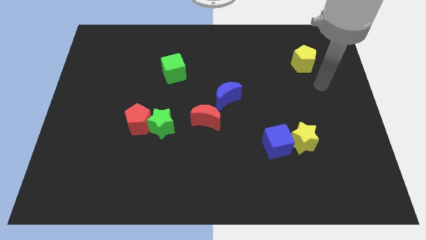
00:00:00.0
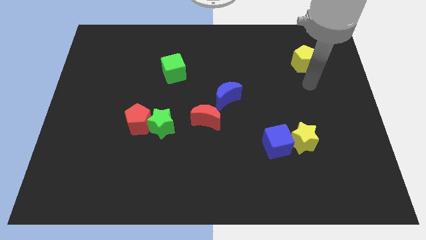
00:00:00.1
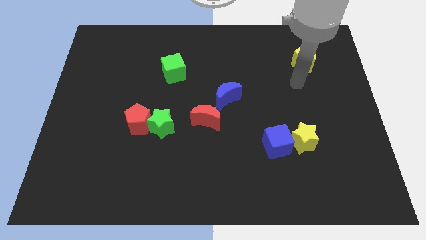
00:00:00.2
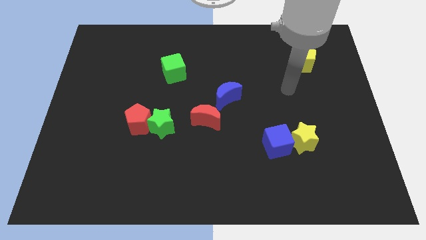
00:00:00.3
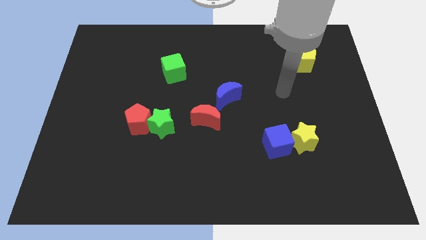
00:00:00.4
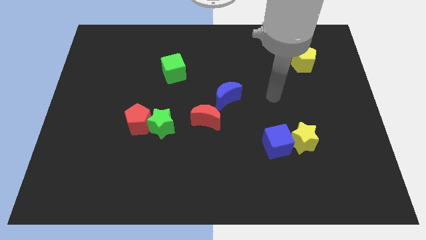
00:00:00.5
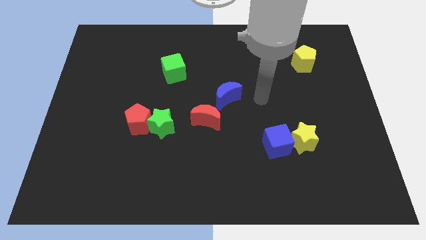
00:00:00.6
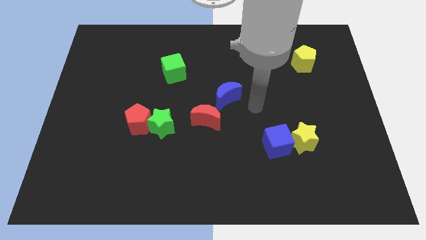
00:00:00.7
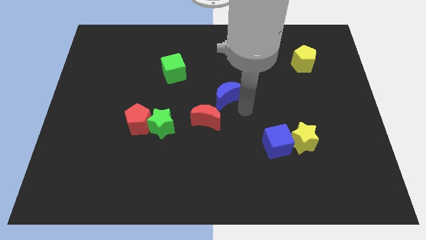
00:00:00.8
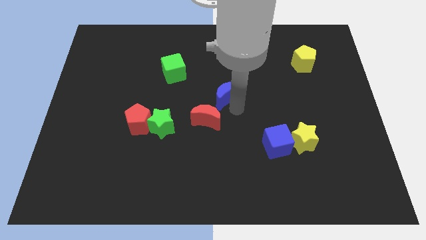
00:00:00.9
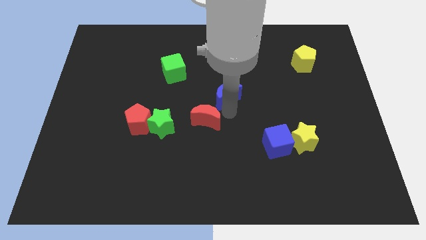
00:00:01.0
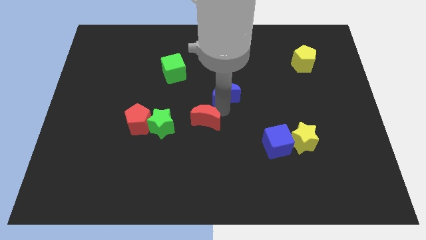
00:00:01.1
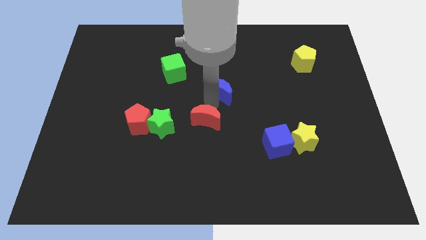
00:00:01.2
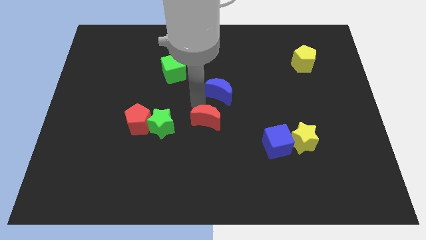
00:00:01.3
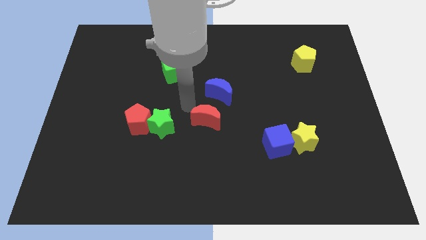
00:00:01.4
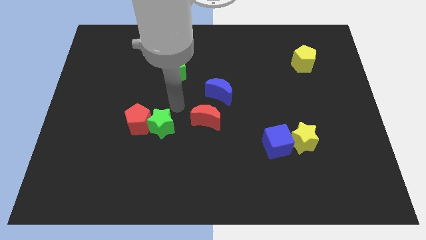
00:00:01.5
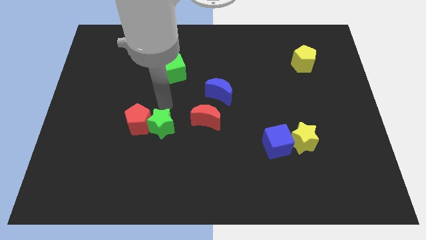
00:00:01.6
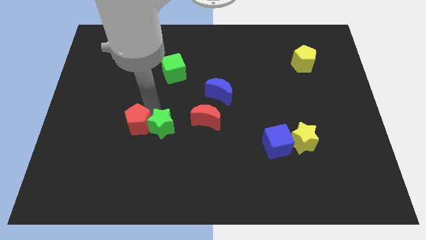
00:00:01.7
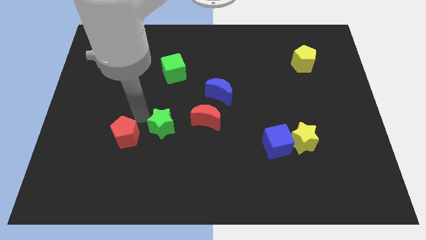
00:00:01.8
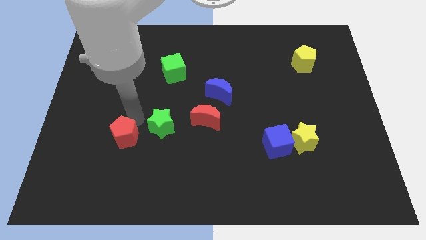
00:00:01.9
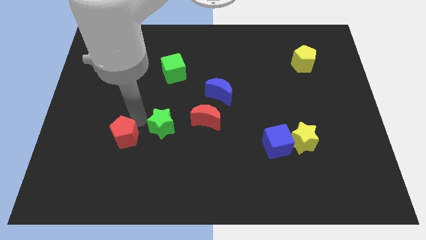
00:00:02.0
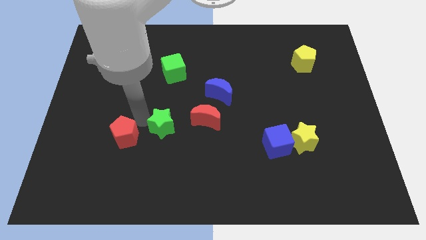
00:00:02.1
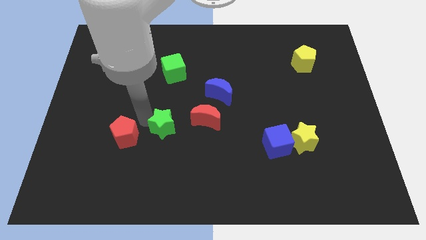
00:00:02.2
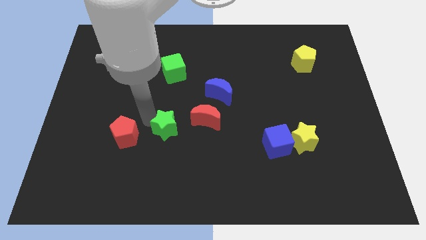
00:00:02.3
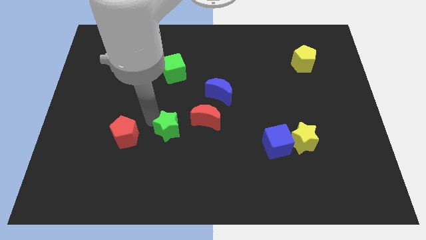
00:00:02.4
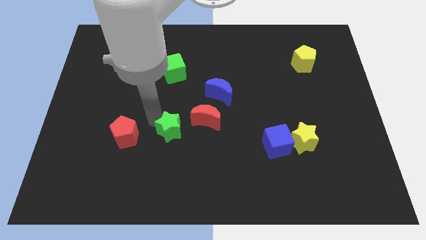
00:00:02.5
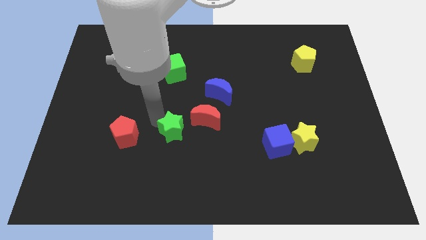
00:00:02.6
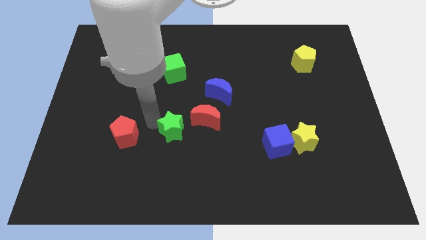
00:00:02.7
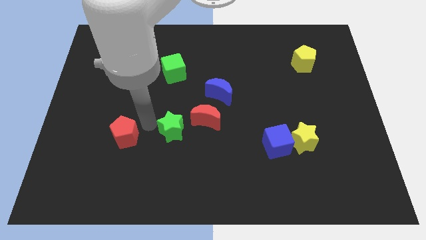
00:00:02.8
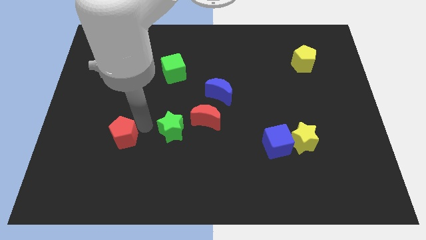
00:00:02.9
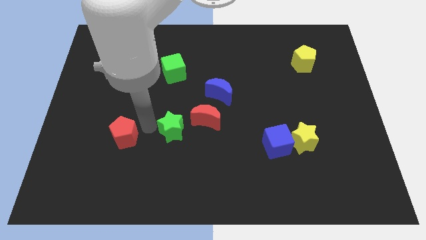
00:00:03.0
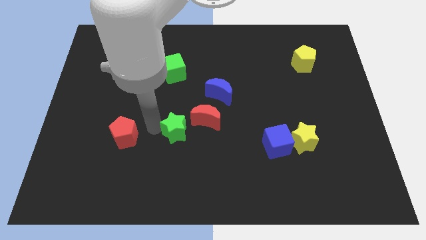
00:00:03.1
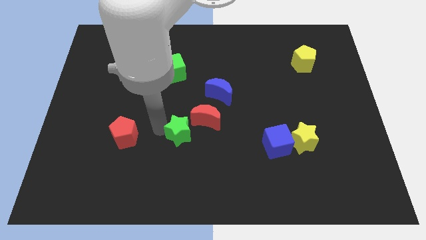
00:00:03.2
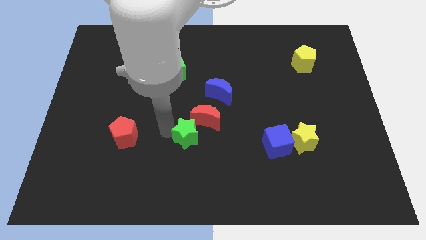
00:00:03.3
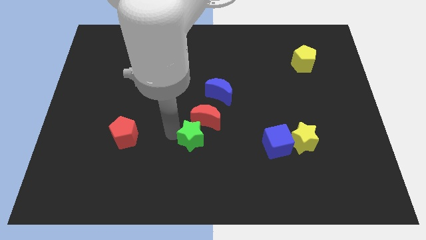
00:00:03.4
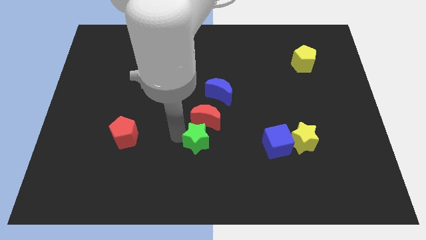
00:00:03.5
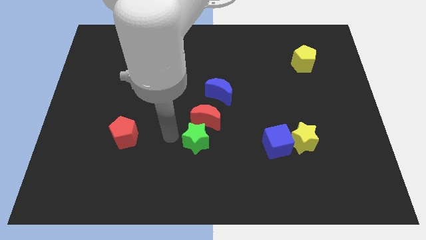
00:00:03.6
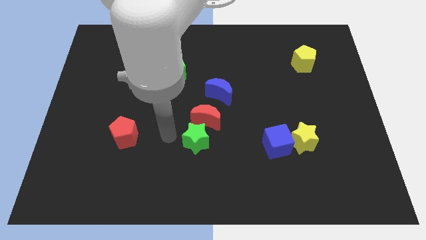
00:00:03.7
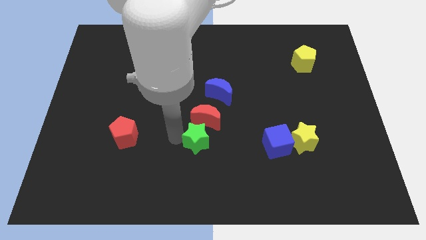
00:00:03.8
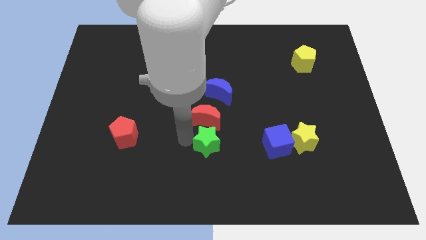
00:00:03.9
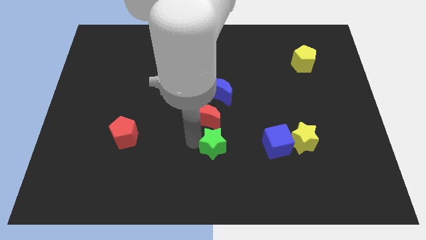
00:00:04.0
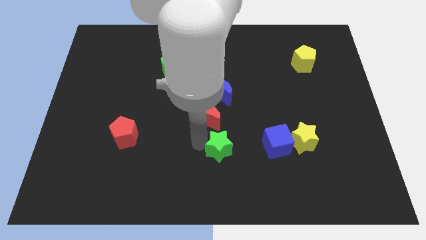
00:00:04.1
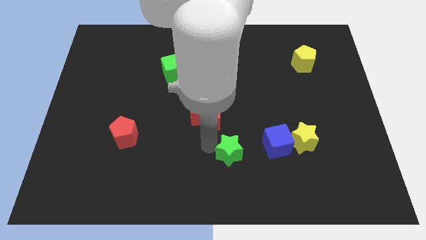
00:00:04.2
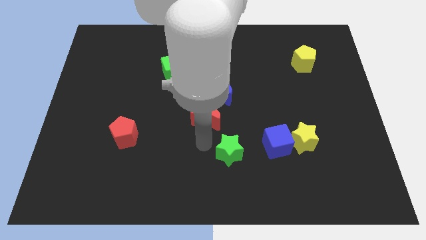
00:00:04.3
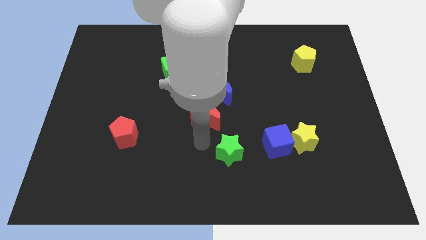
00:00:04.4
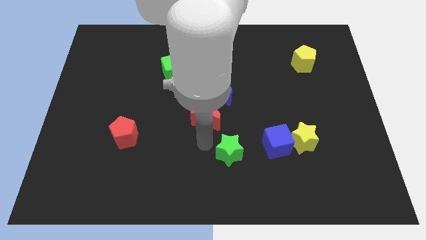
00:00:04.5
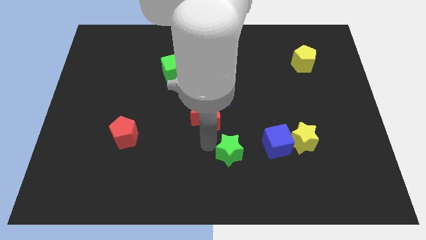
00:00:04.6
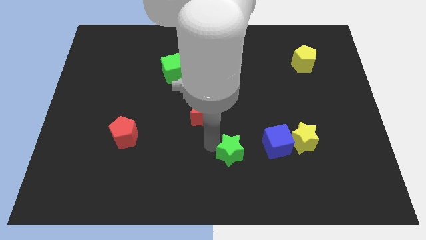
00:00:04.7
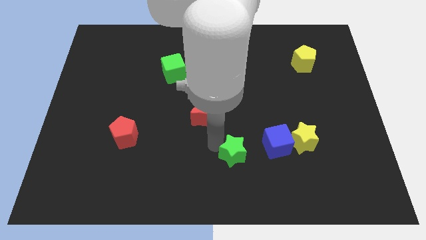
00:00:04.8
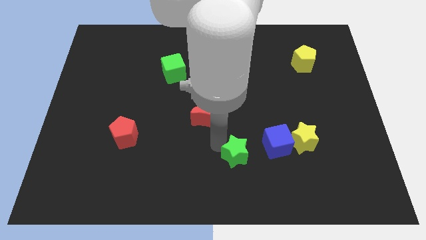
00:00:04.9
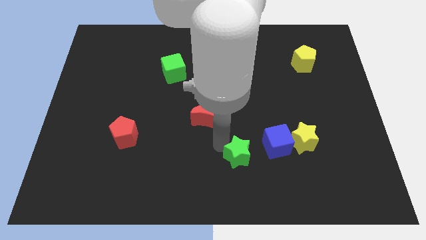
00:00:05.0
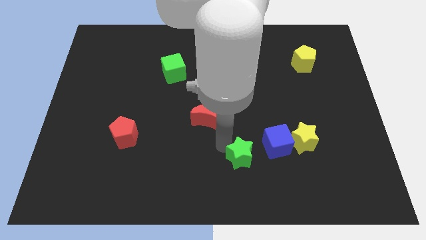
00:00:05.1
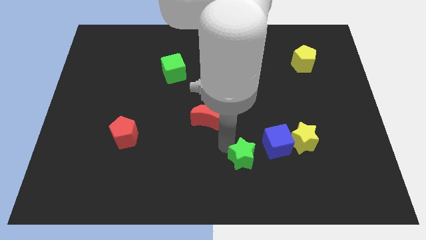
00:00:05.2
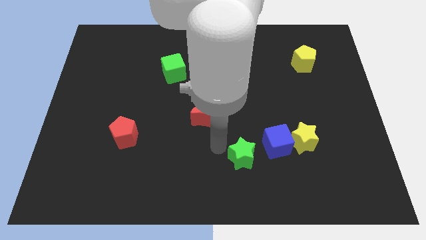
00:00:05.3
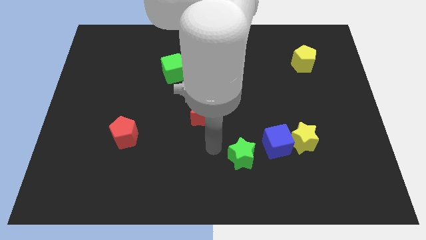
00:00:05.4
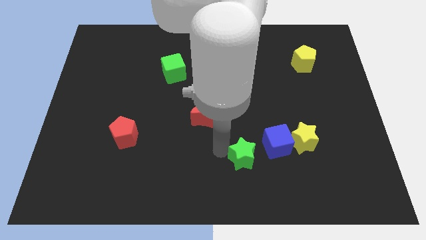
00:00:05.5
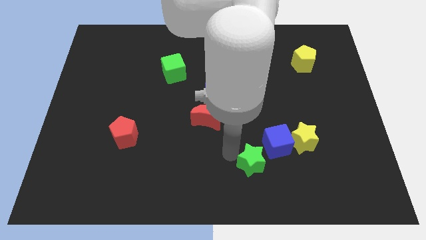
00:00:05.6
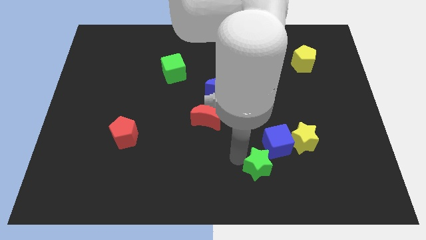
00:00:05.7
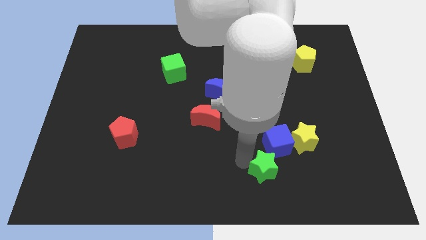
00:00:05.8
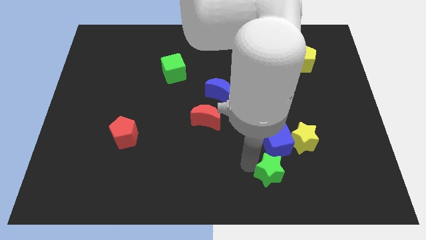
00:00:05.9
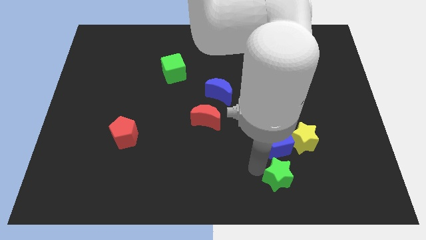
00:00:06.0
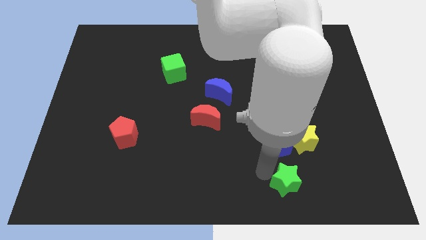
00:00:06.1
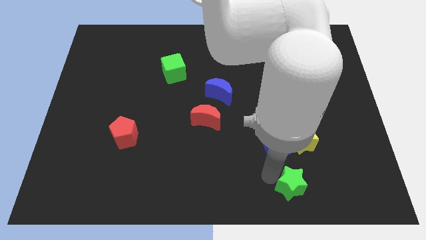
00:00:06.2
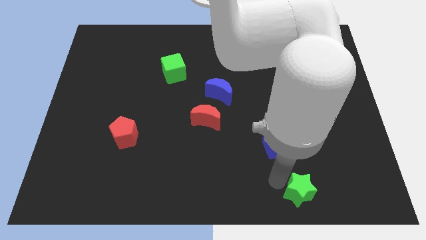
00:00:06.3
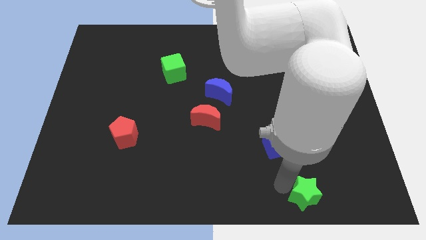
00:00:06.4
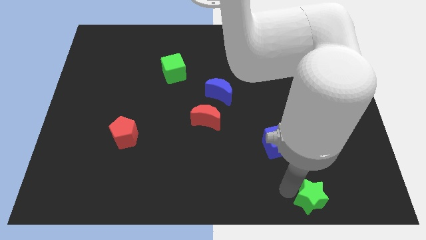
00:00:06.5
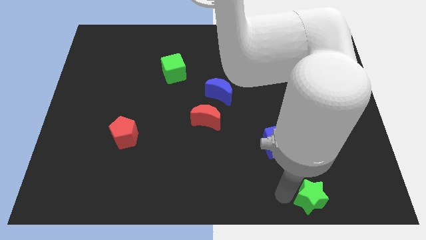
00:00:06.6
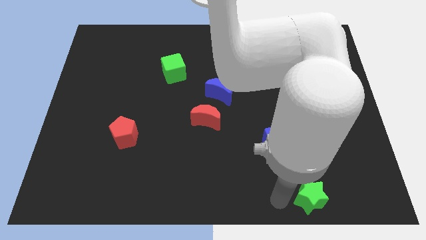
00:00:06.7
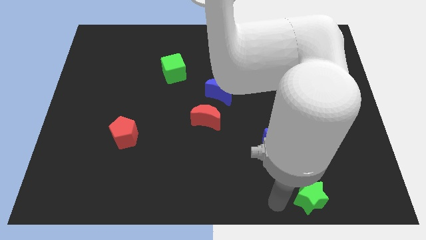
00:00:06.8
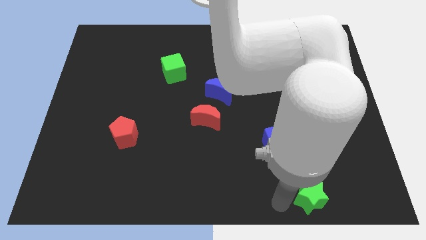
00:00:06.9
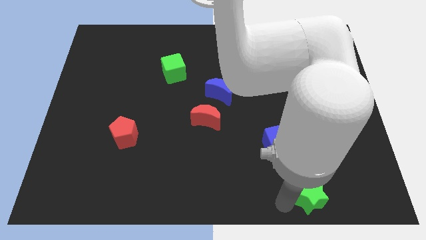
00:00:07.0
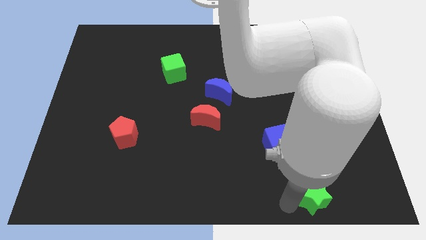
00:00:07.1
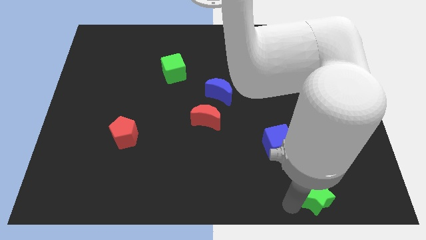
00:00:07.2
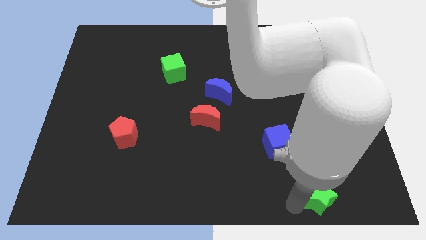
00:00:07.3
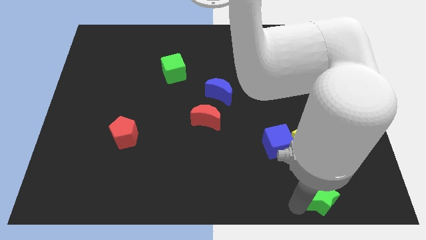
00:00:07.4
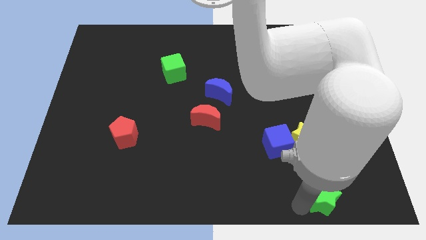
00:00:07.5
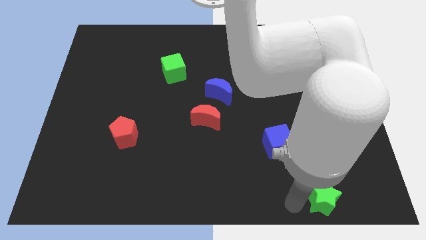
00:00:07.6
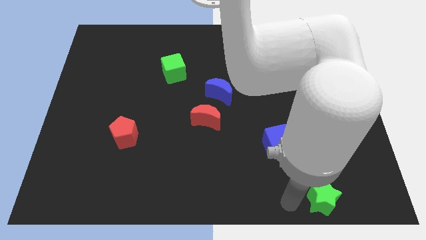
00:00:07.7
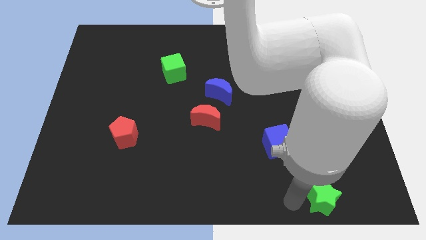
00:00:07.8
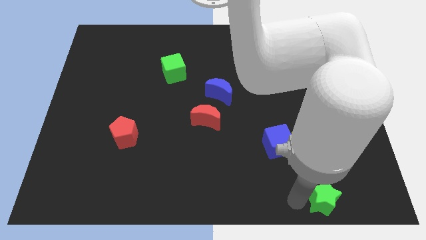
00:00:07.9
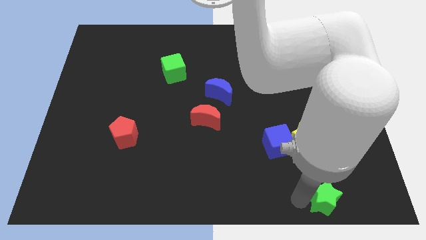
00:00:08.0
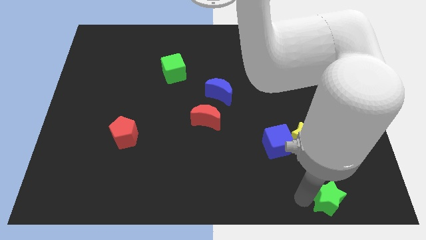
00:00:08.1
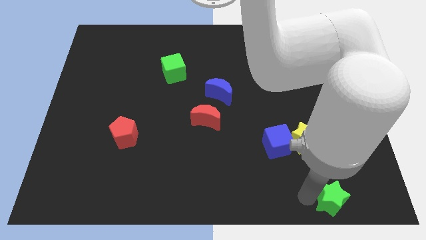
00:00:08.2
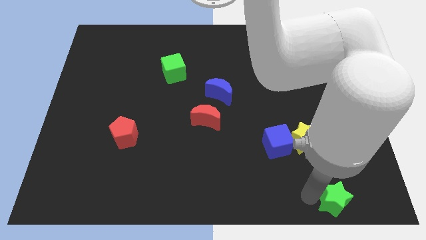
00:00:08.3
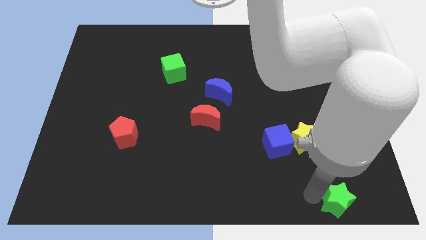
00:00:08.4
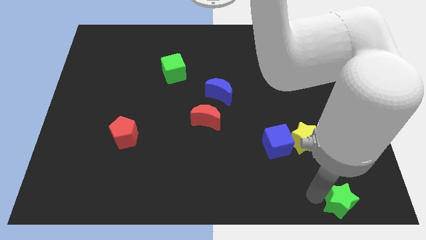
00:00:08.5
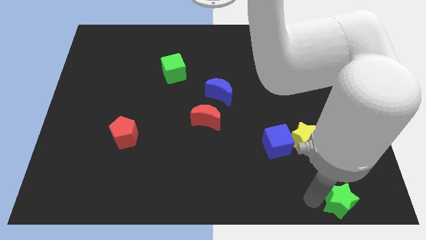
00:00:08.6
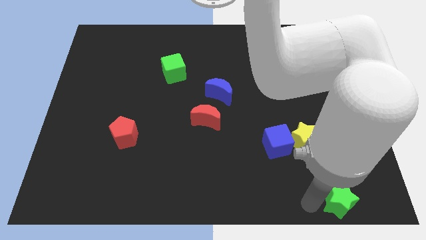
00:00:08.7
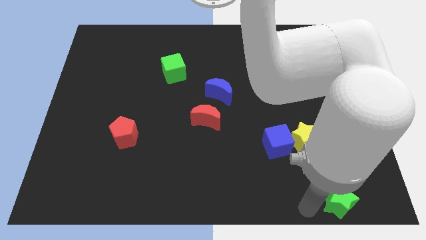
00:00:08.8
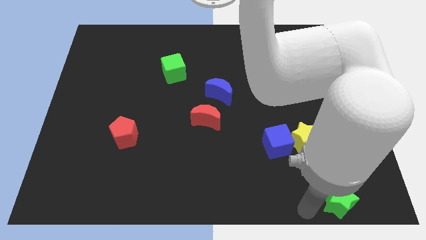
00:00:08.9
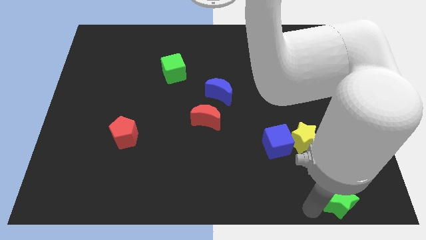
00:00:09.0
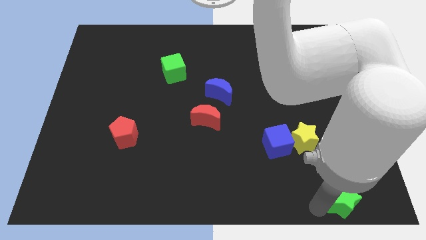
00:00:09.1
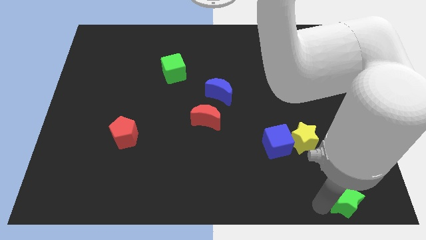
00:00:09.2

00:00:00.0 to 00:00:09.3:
put the green star to the lower right corner
